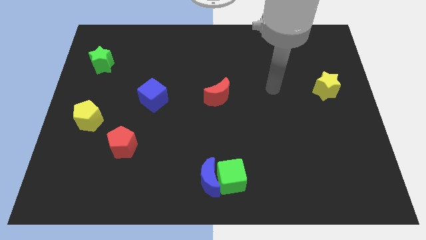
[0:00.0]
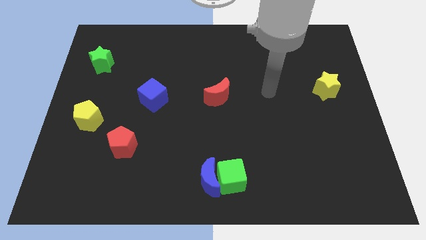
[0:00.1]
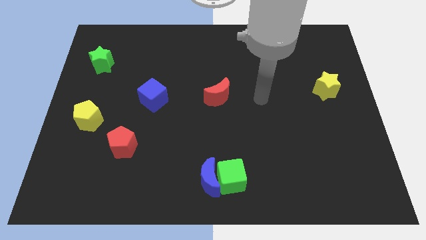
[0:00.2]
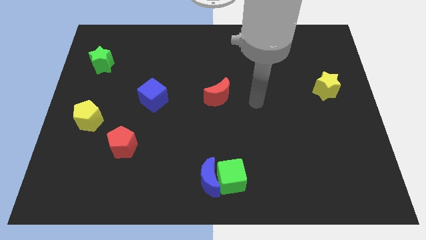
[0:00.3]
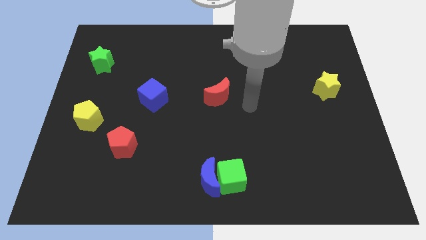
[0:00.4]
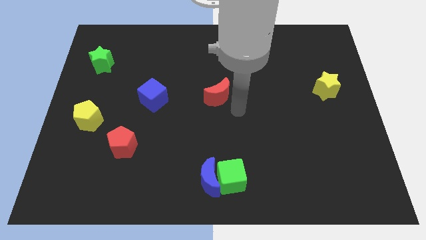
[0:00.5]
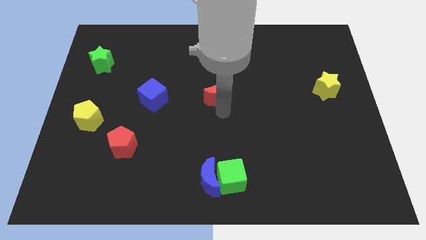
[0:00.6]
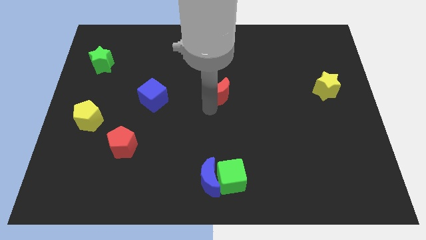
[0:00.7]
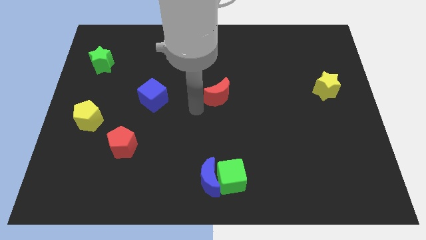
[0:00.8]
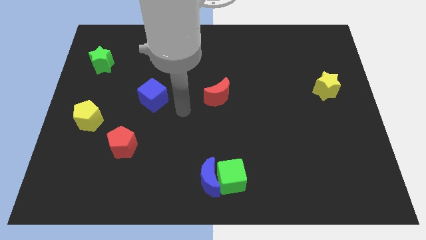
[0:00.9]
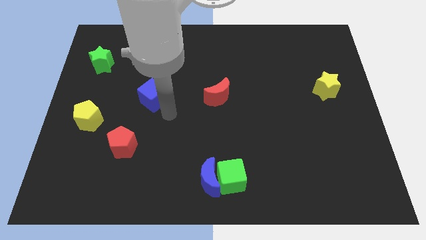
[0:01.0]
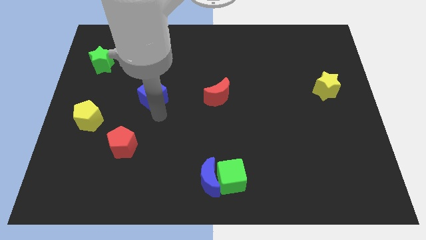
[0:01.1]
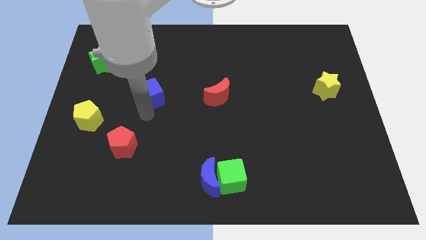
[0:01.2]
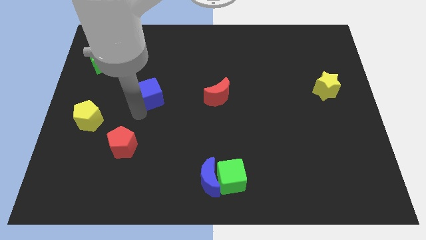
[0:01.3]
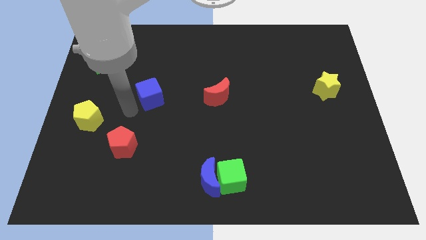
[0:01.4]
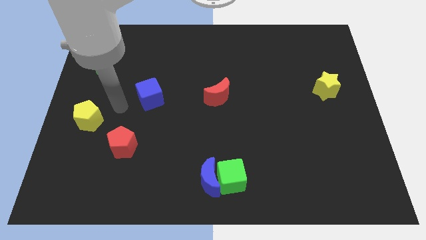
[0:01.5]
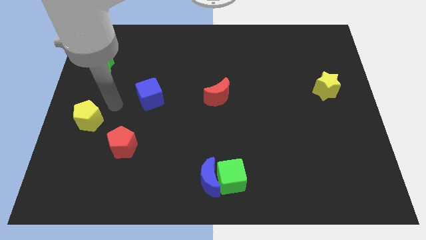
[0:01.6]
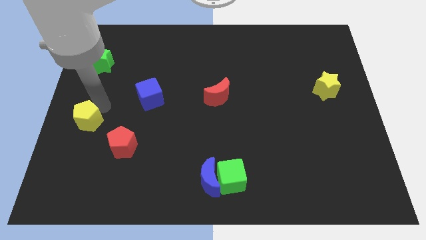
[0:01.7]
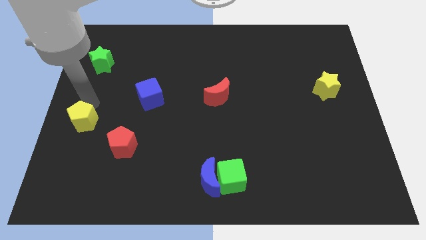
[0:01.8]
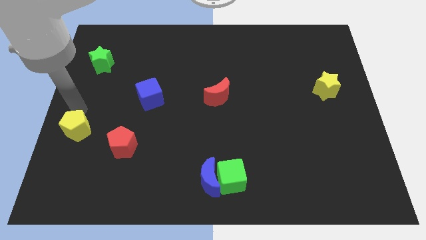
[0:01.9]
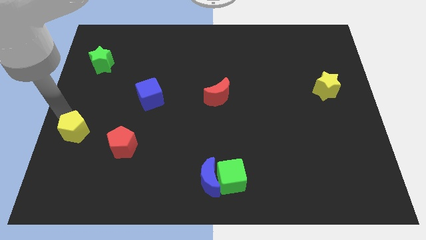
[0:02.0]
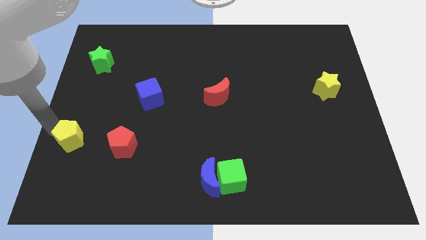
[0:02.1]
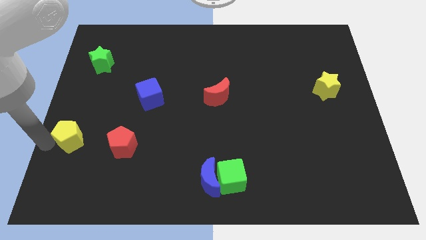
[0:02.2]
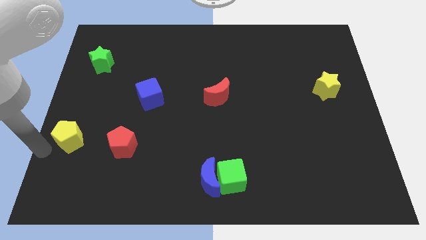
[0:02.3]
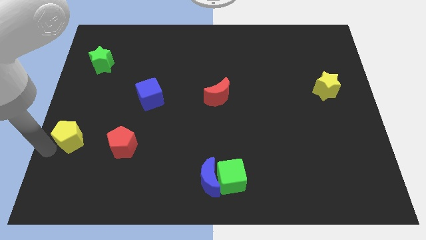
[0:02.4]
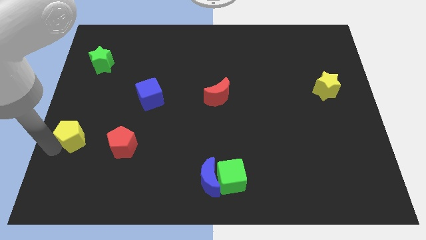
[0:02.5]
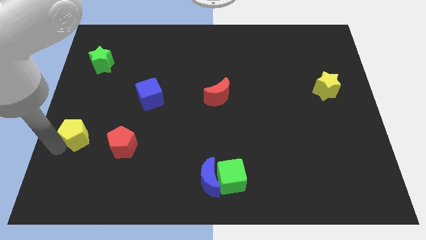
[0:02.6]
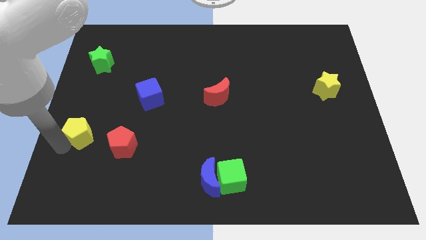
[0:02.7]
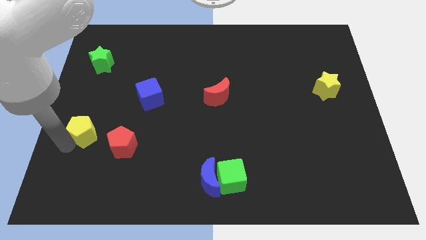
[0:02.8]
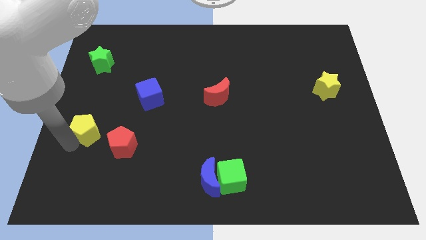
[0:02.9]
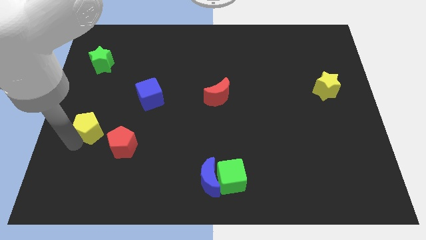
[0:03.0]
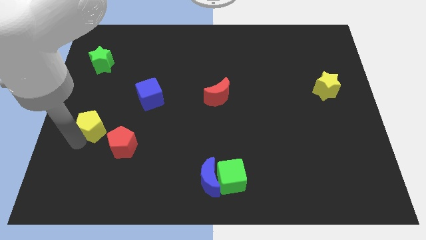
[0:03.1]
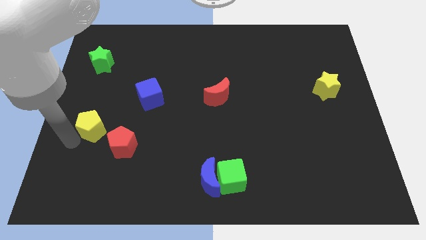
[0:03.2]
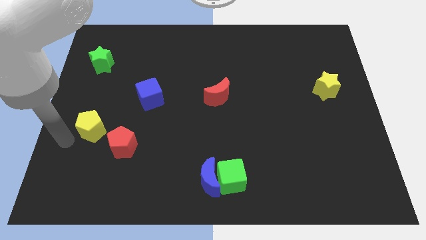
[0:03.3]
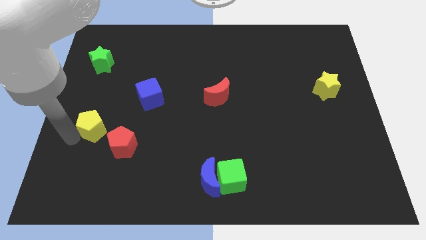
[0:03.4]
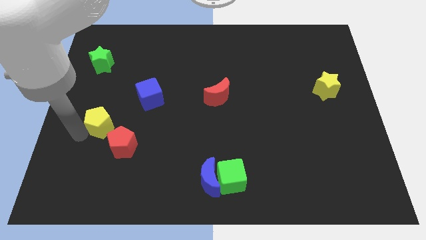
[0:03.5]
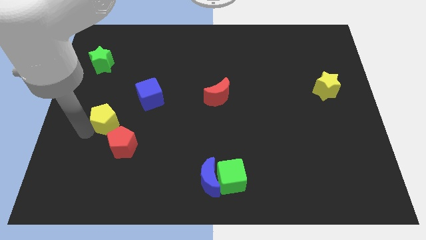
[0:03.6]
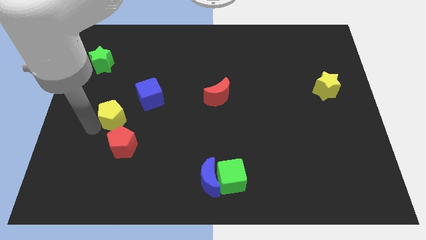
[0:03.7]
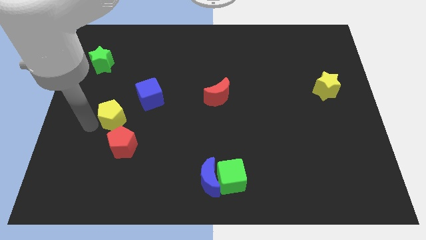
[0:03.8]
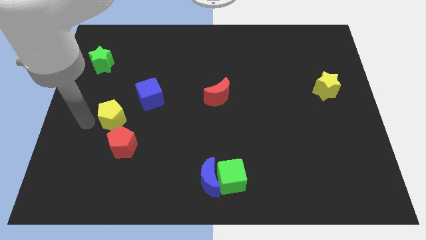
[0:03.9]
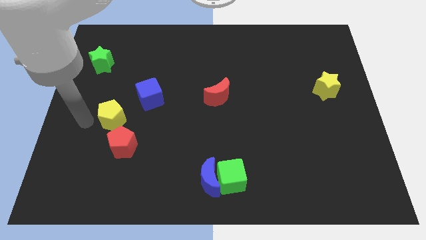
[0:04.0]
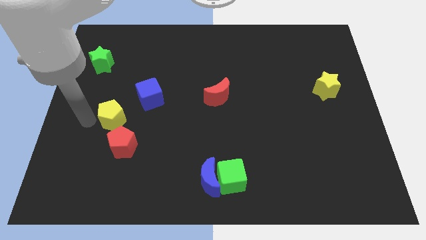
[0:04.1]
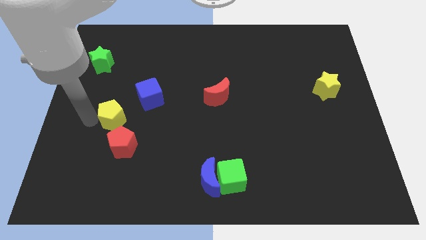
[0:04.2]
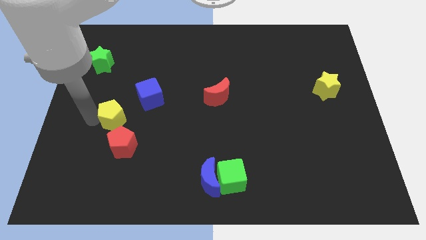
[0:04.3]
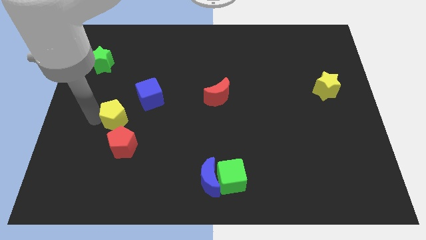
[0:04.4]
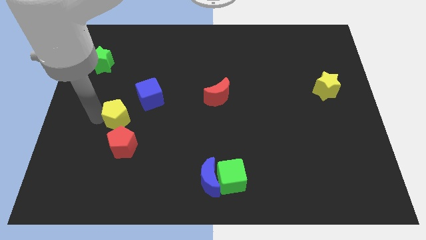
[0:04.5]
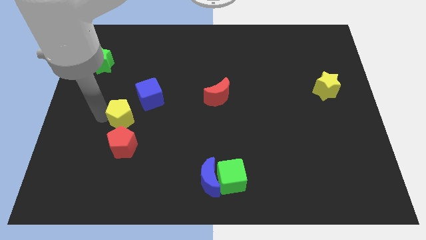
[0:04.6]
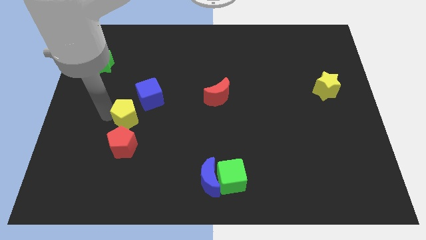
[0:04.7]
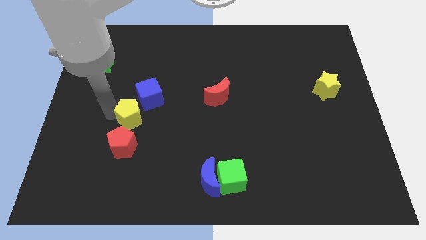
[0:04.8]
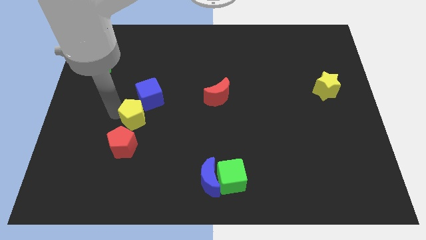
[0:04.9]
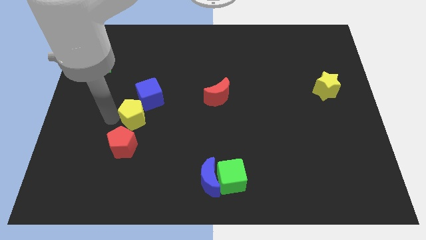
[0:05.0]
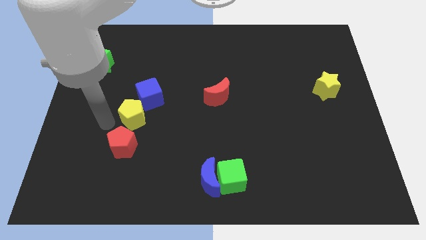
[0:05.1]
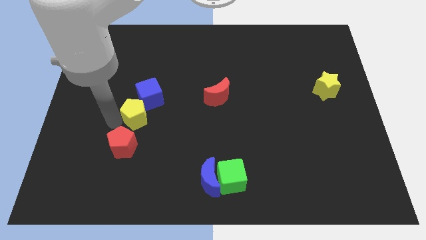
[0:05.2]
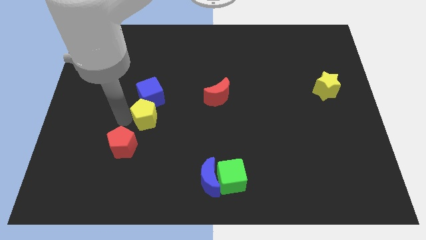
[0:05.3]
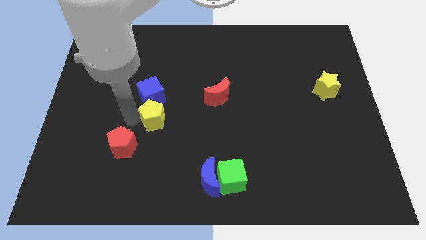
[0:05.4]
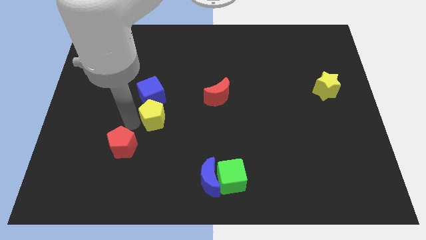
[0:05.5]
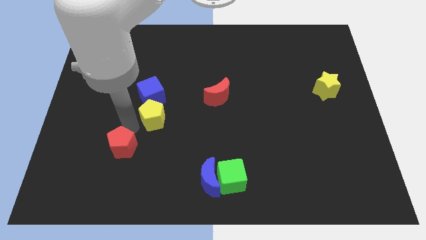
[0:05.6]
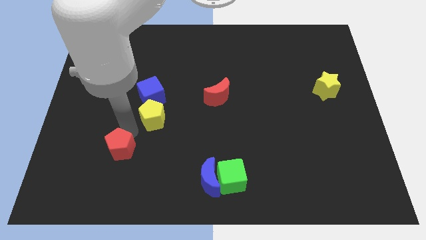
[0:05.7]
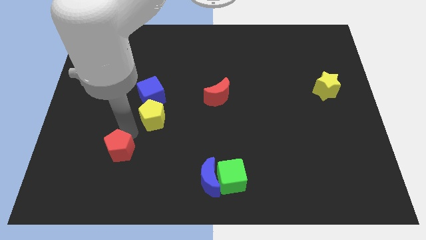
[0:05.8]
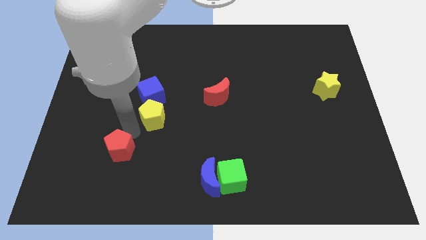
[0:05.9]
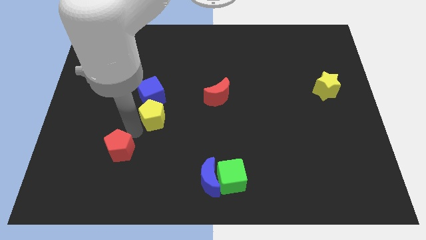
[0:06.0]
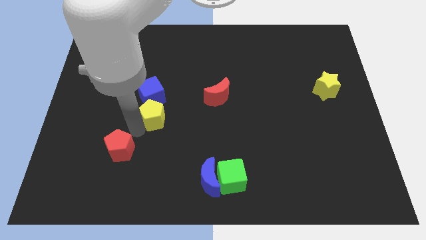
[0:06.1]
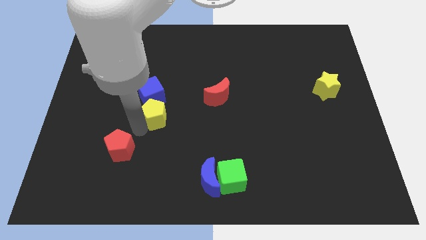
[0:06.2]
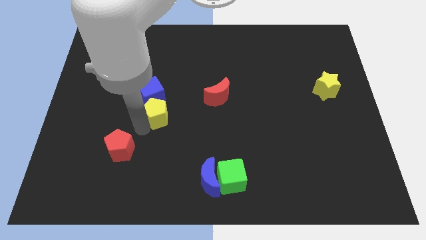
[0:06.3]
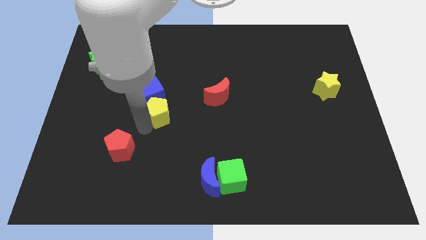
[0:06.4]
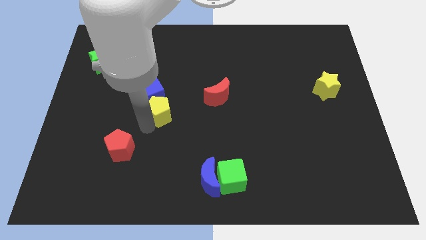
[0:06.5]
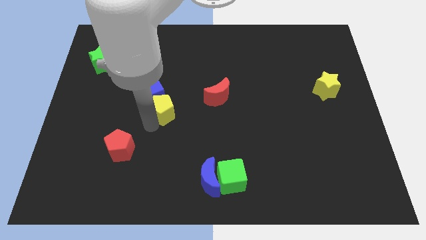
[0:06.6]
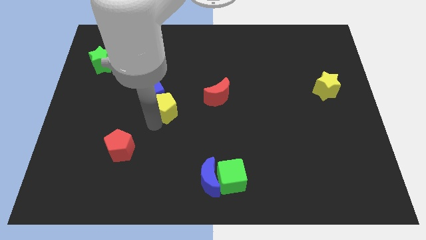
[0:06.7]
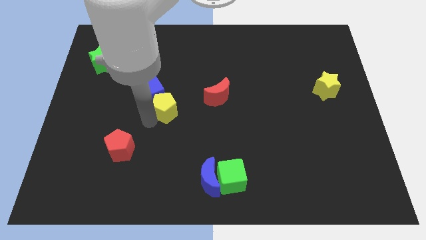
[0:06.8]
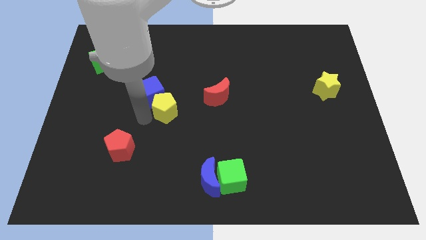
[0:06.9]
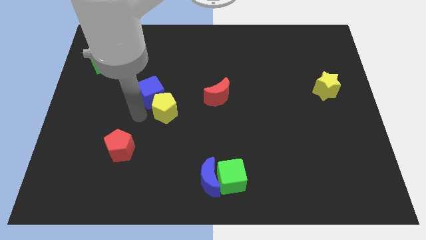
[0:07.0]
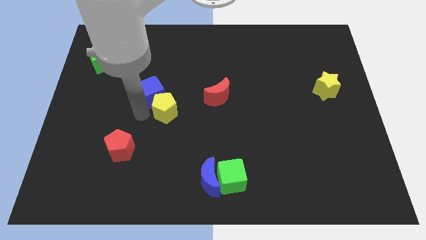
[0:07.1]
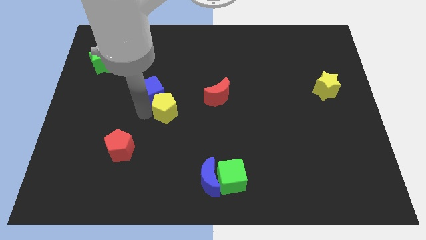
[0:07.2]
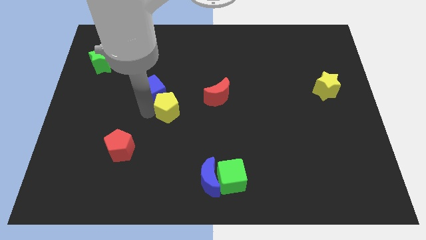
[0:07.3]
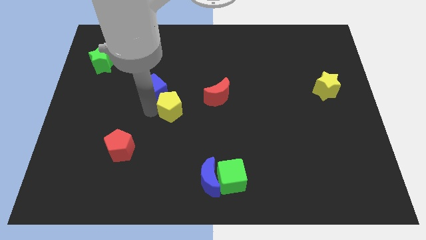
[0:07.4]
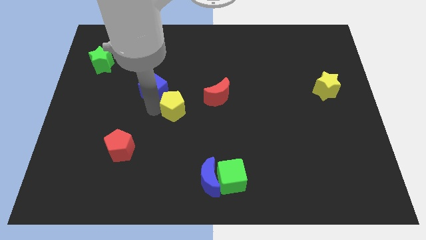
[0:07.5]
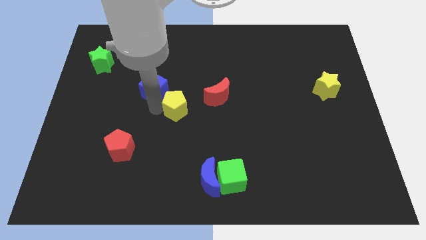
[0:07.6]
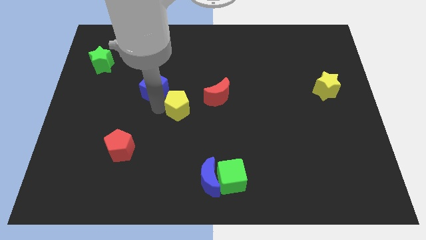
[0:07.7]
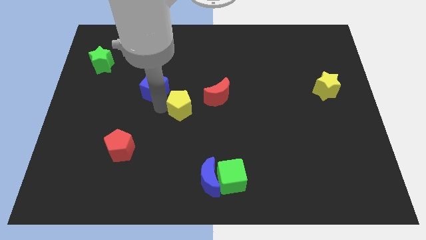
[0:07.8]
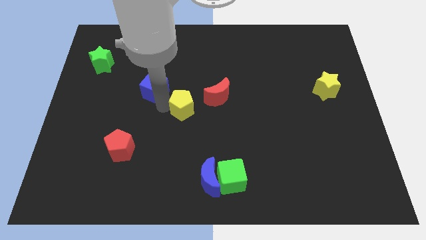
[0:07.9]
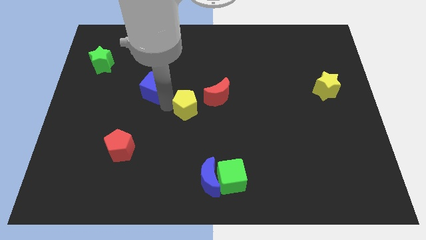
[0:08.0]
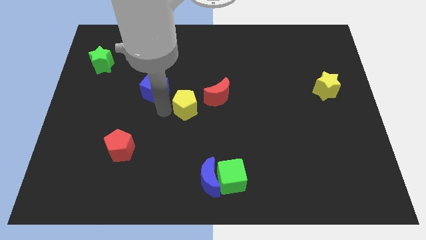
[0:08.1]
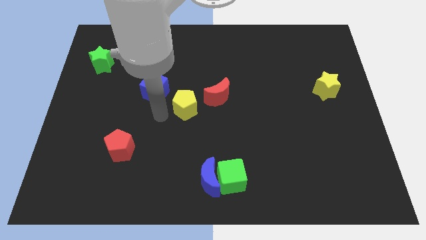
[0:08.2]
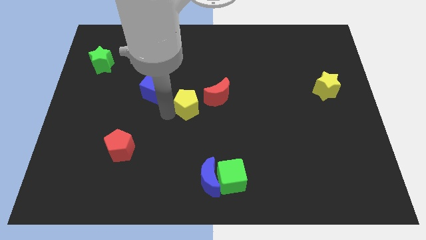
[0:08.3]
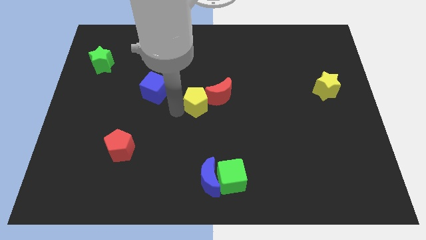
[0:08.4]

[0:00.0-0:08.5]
move the yellow pentagon close to the red moon
